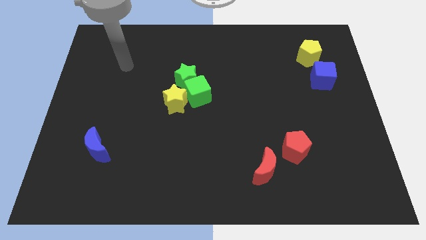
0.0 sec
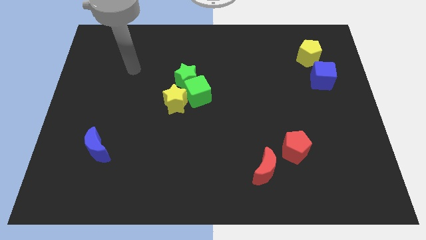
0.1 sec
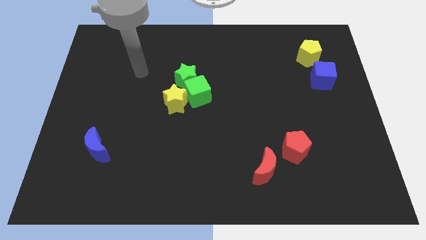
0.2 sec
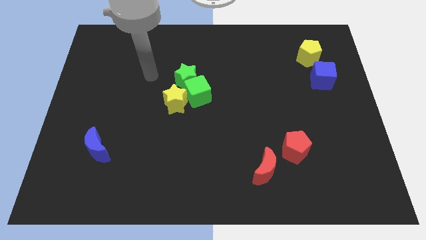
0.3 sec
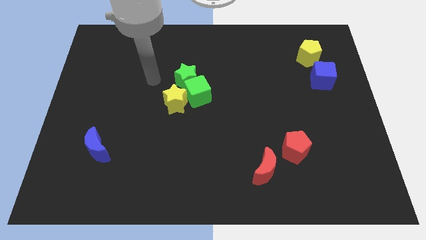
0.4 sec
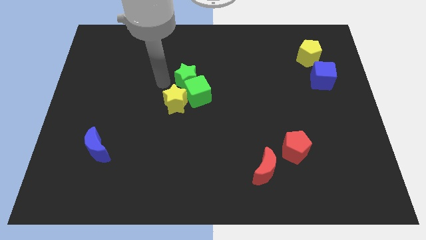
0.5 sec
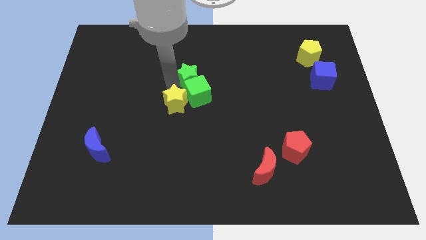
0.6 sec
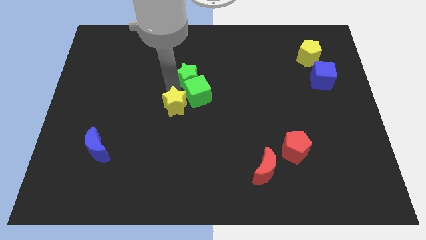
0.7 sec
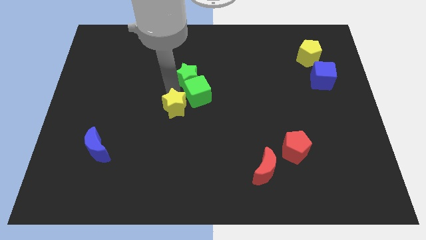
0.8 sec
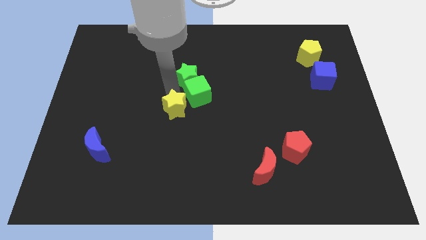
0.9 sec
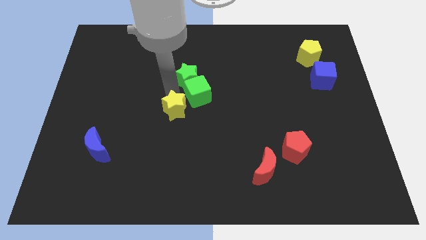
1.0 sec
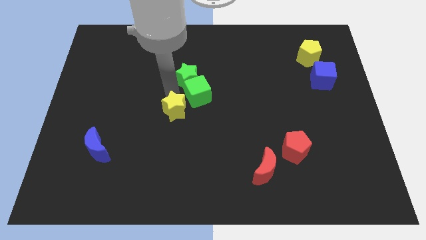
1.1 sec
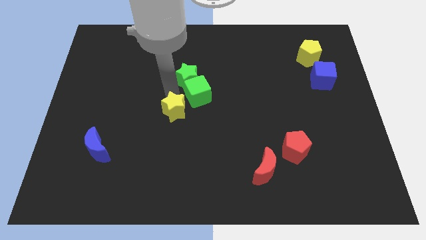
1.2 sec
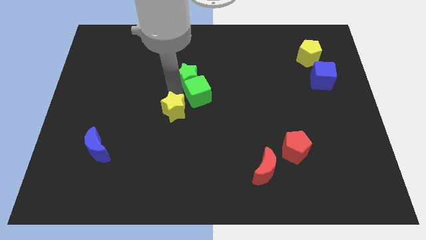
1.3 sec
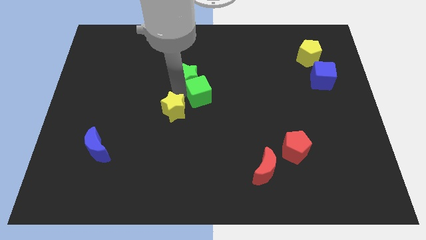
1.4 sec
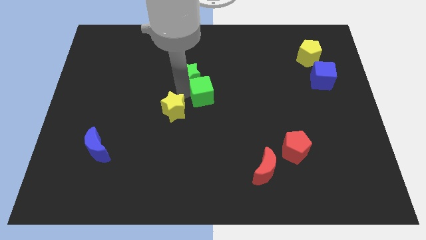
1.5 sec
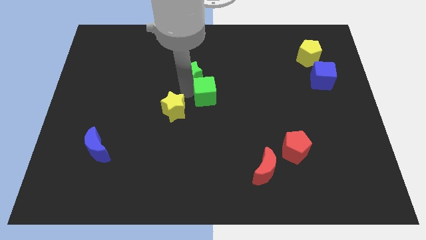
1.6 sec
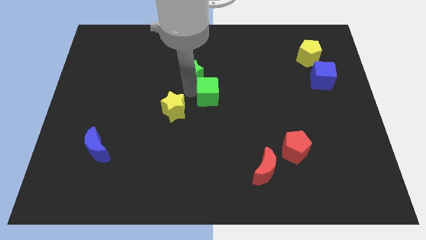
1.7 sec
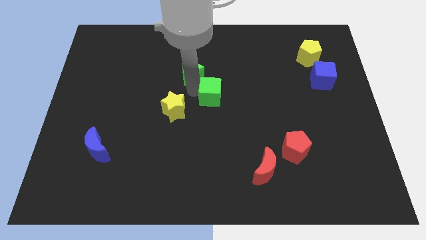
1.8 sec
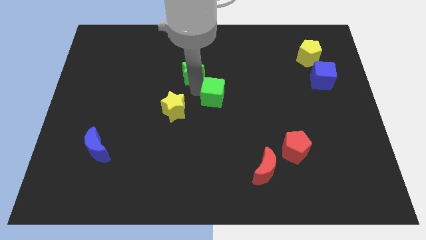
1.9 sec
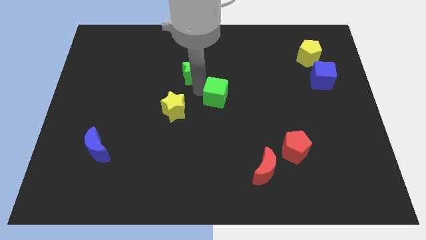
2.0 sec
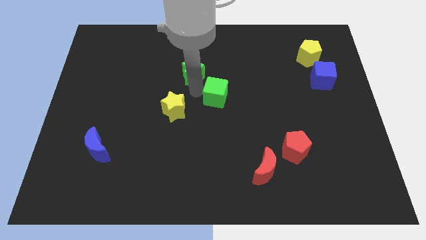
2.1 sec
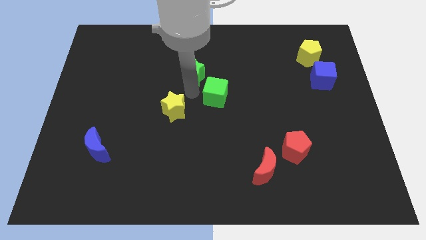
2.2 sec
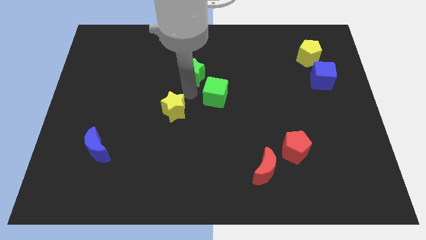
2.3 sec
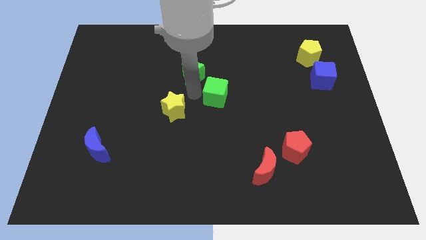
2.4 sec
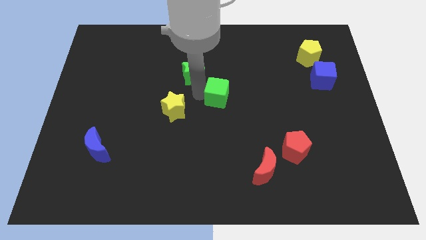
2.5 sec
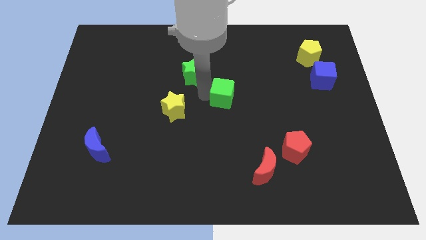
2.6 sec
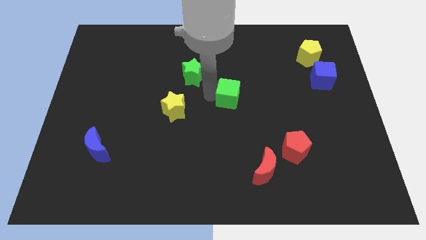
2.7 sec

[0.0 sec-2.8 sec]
pull the green cube apart from the green star and yellow star

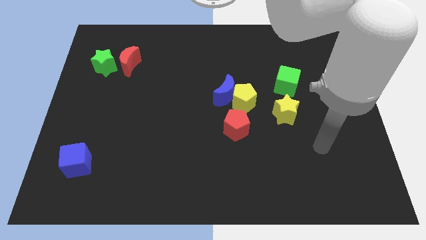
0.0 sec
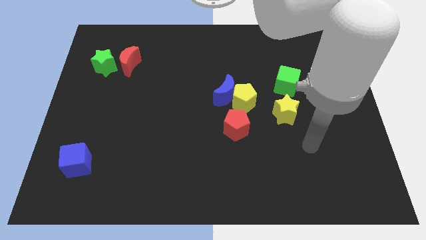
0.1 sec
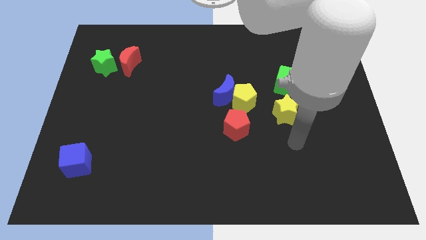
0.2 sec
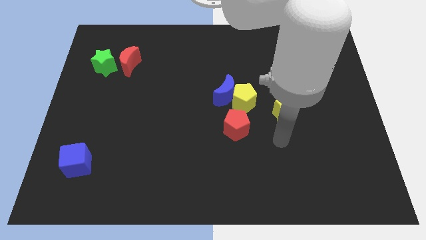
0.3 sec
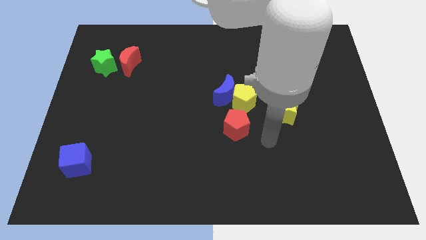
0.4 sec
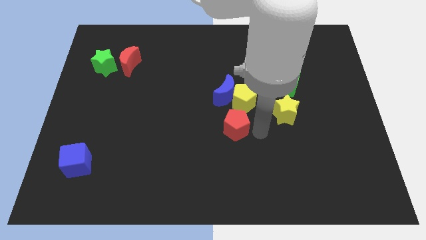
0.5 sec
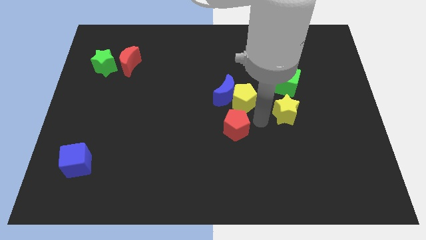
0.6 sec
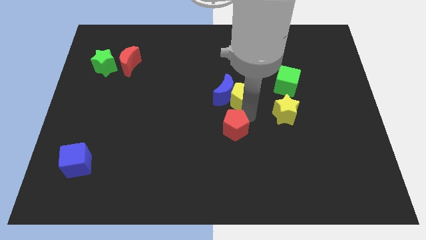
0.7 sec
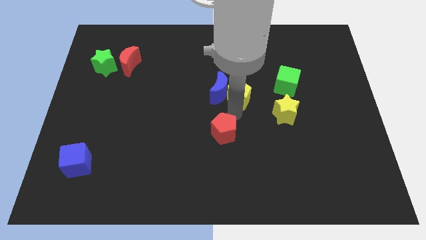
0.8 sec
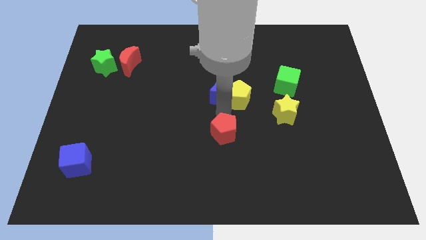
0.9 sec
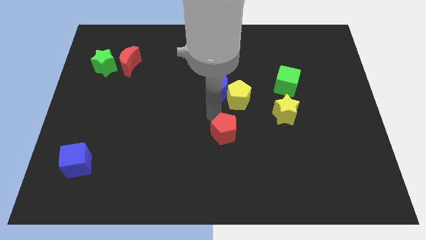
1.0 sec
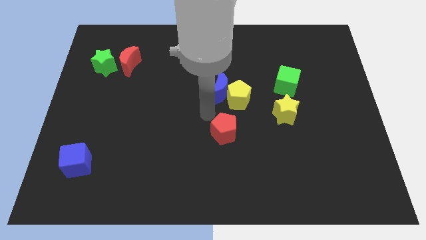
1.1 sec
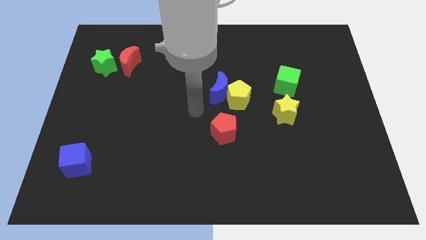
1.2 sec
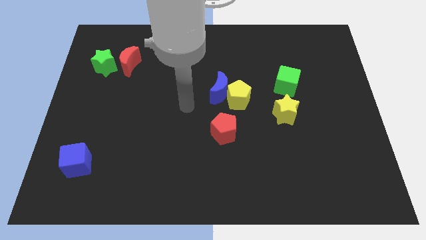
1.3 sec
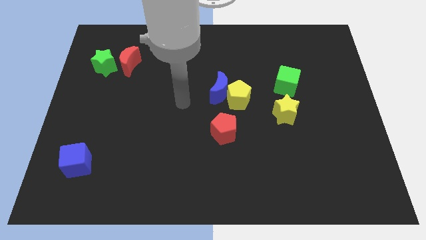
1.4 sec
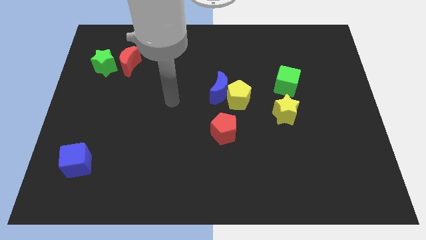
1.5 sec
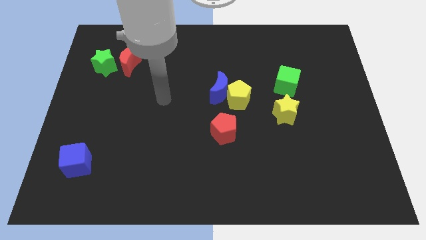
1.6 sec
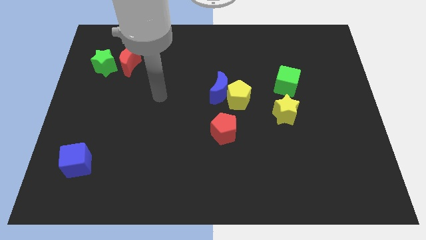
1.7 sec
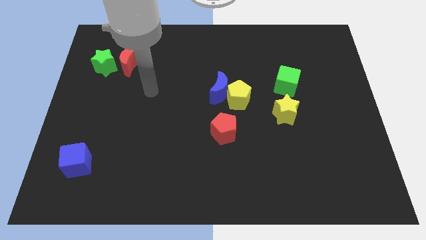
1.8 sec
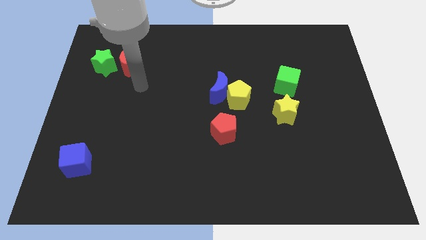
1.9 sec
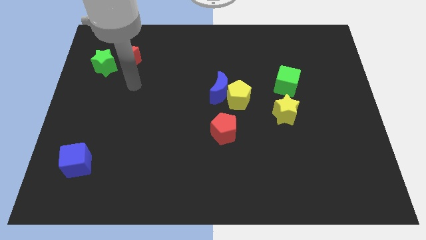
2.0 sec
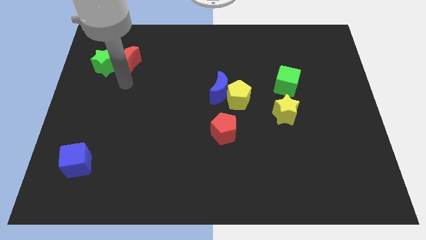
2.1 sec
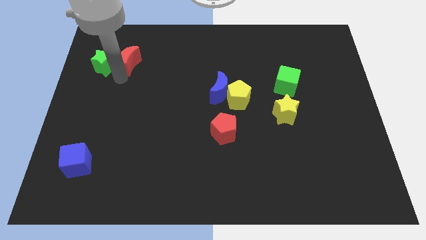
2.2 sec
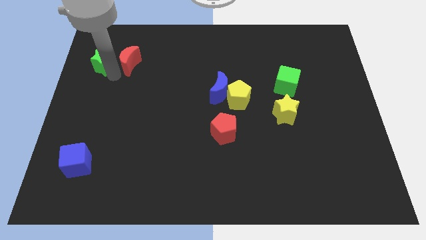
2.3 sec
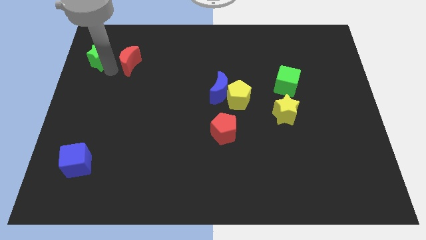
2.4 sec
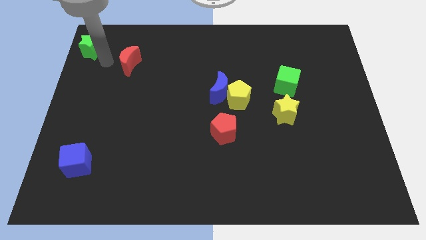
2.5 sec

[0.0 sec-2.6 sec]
separate the red moon from the green star

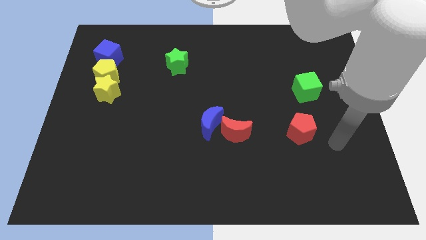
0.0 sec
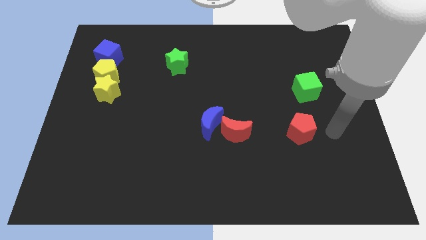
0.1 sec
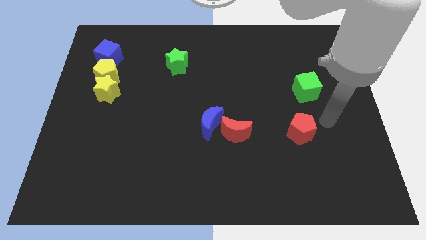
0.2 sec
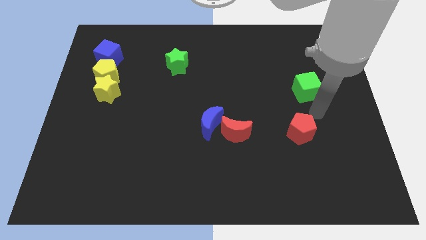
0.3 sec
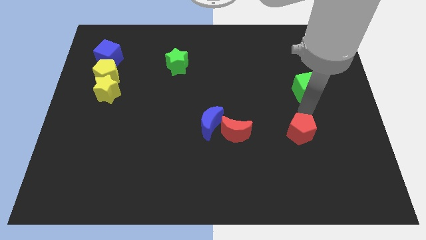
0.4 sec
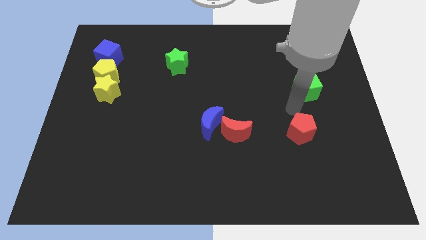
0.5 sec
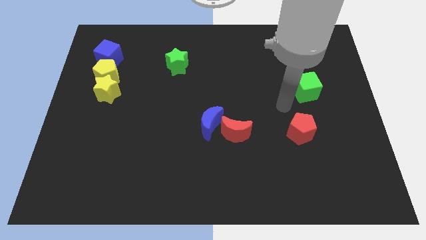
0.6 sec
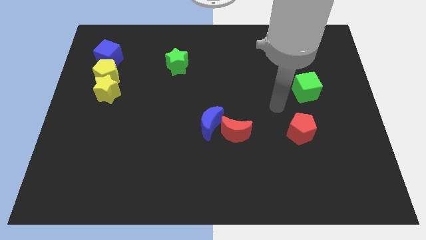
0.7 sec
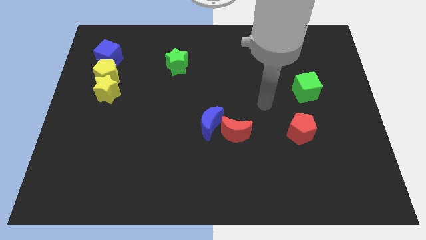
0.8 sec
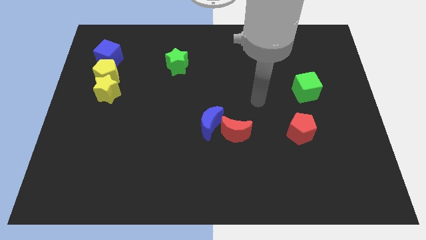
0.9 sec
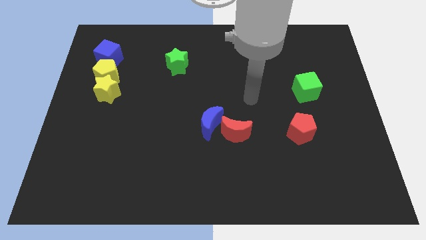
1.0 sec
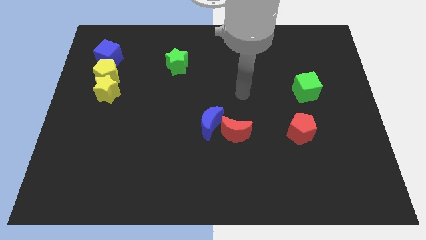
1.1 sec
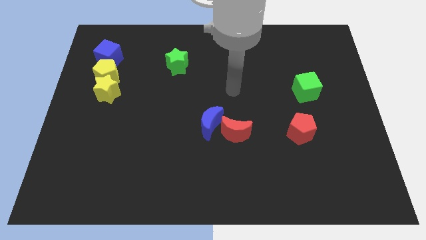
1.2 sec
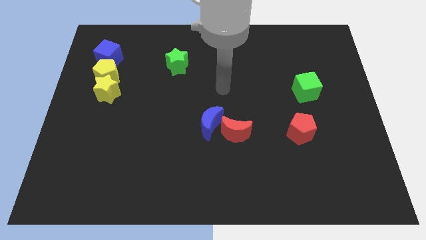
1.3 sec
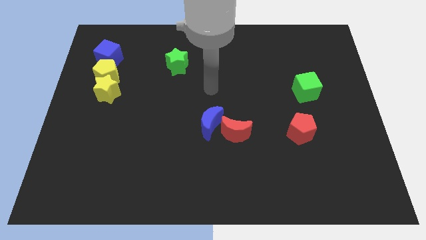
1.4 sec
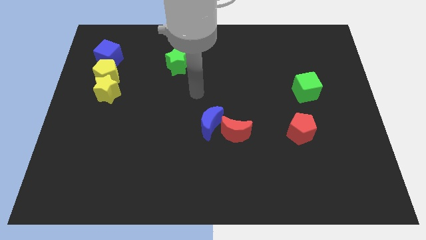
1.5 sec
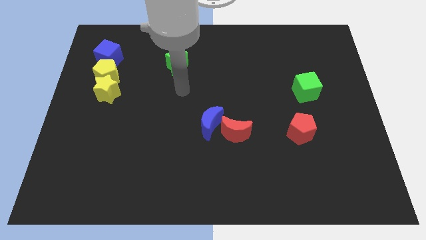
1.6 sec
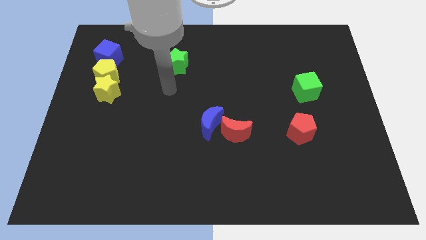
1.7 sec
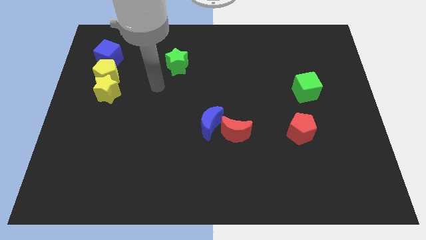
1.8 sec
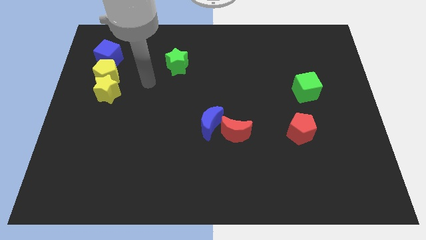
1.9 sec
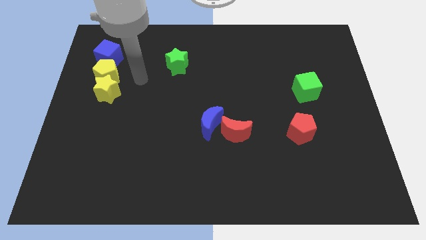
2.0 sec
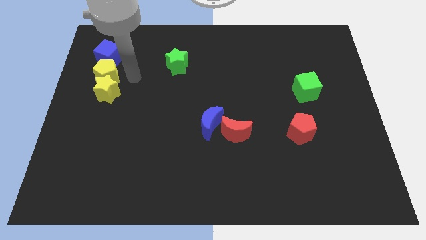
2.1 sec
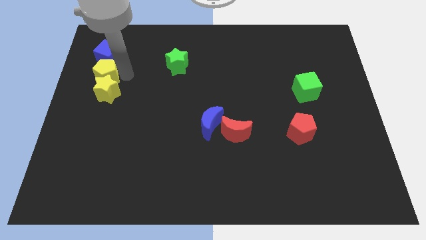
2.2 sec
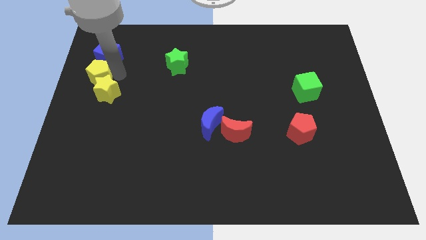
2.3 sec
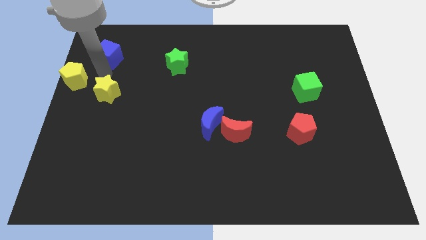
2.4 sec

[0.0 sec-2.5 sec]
separate the yellow star from the yellow pentagon

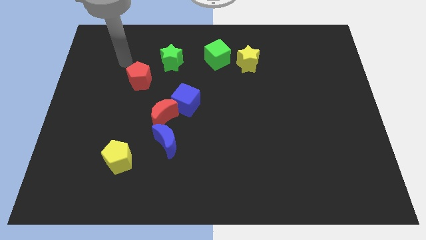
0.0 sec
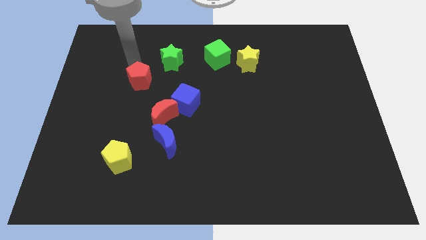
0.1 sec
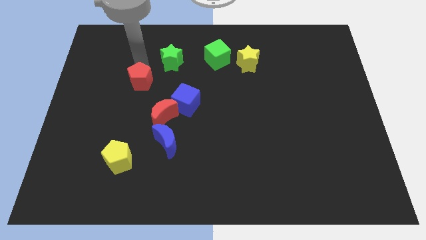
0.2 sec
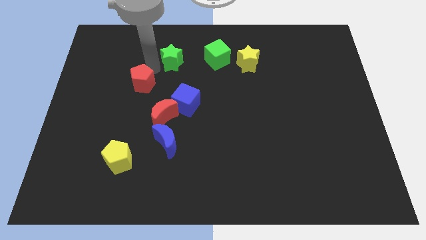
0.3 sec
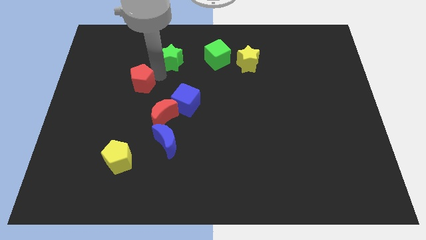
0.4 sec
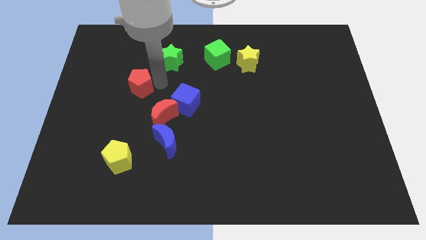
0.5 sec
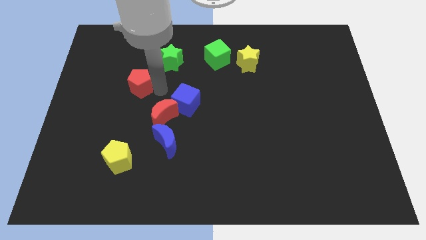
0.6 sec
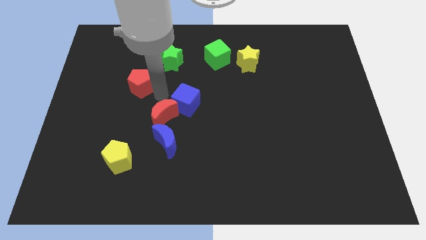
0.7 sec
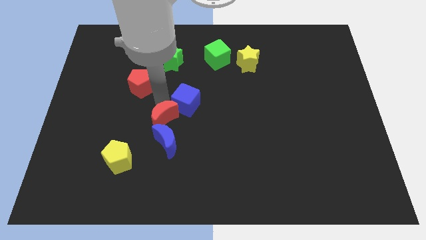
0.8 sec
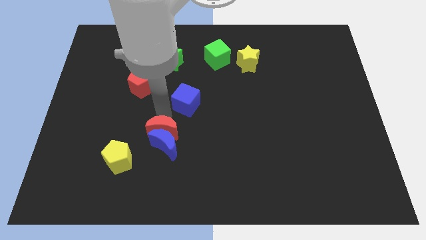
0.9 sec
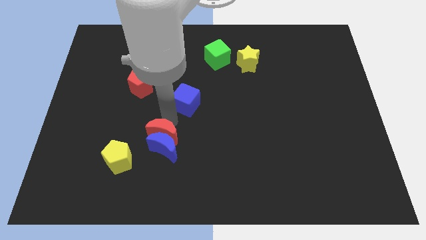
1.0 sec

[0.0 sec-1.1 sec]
separate the blue cube from the red moon

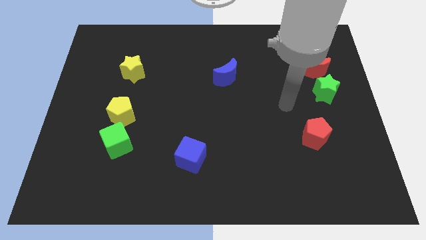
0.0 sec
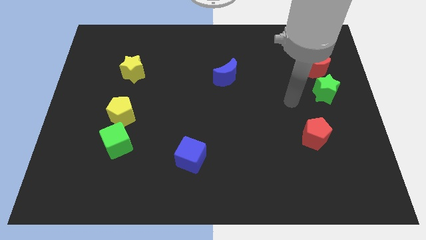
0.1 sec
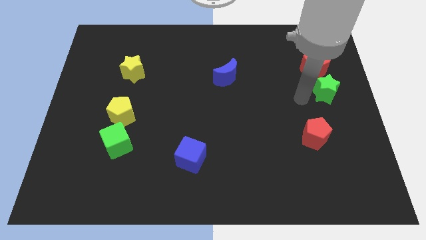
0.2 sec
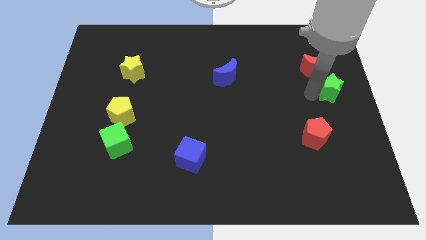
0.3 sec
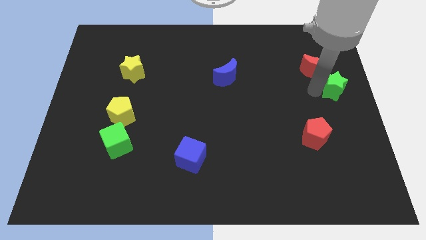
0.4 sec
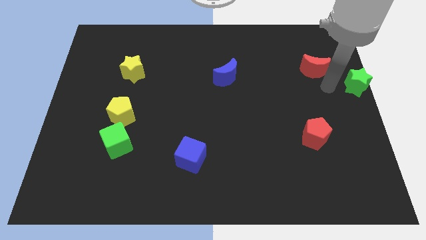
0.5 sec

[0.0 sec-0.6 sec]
pull the red moon apart from the green star
